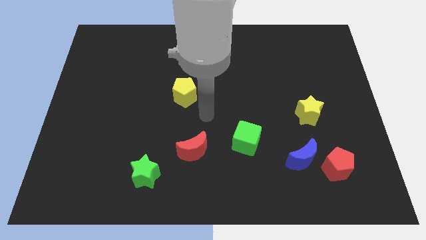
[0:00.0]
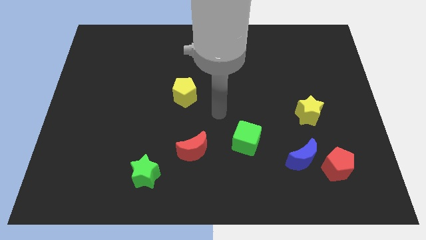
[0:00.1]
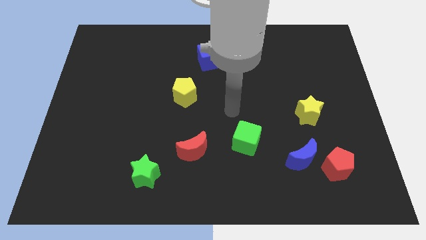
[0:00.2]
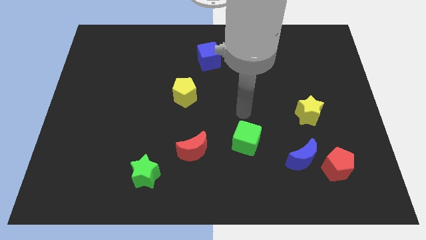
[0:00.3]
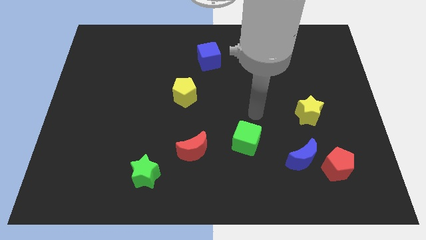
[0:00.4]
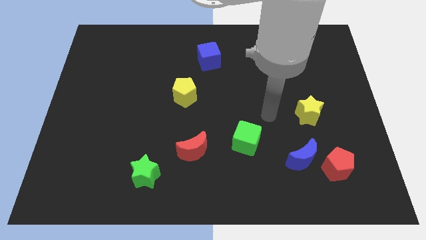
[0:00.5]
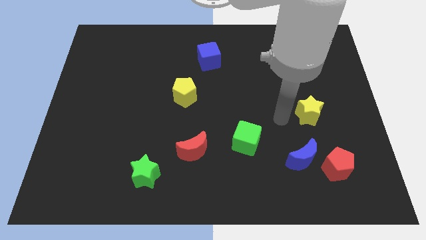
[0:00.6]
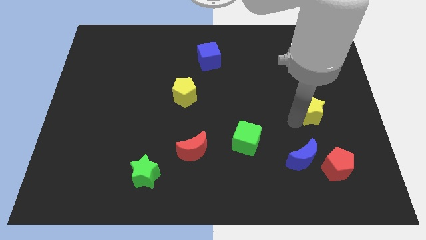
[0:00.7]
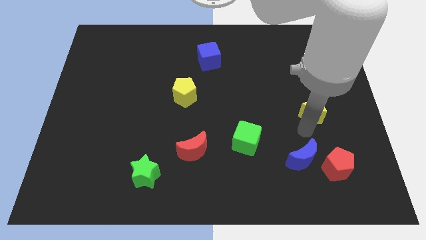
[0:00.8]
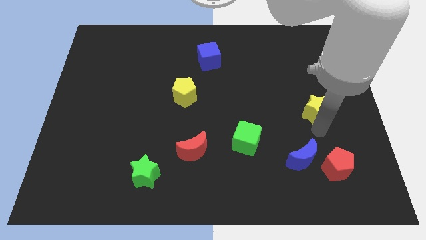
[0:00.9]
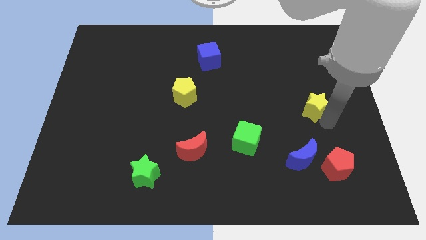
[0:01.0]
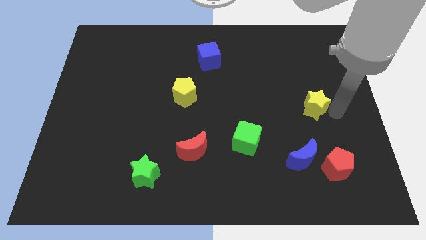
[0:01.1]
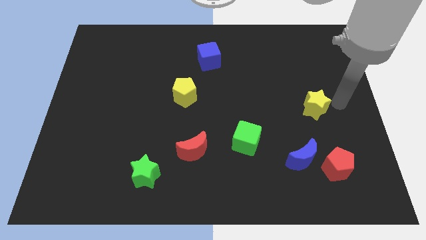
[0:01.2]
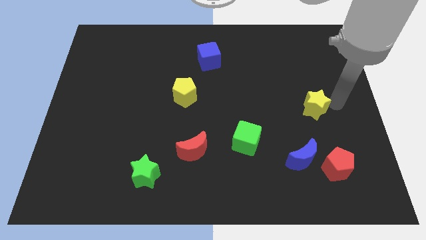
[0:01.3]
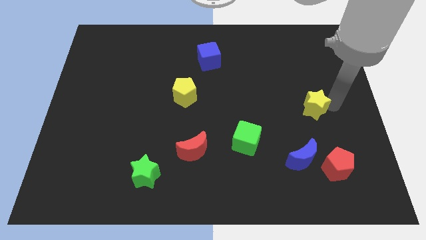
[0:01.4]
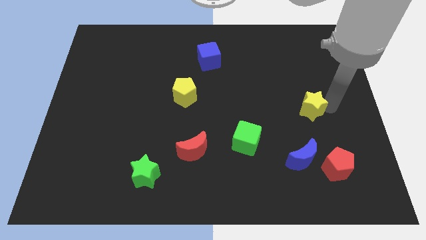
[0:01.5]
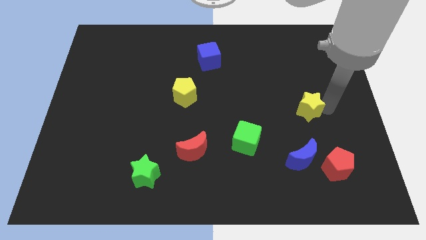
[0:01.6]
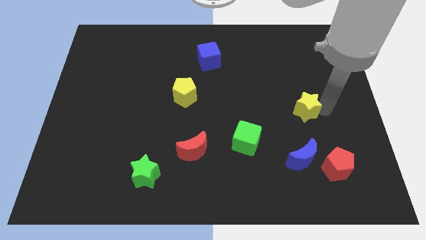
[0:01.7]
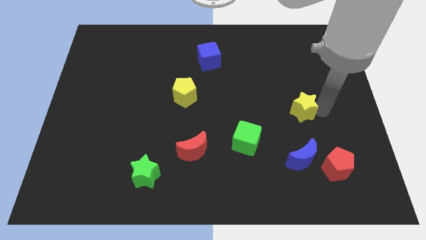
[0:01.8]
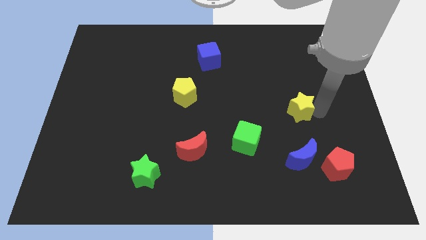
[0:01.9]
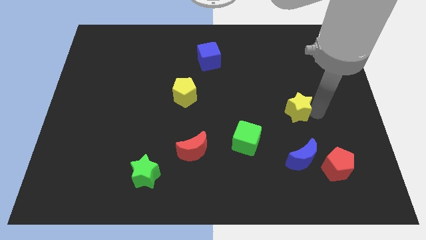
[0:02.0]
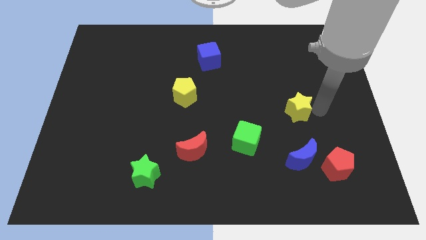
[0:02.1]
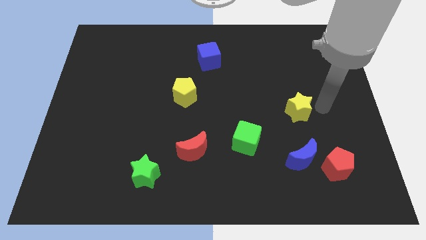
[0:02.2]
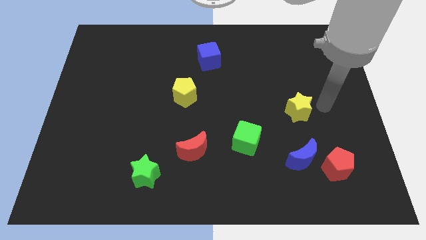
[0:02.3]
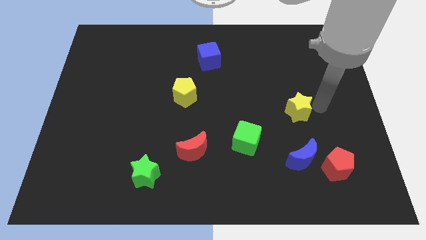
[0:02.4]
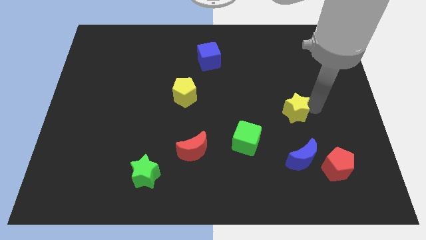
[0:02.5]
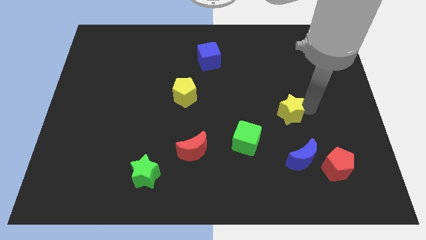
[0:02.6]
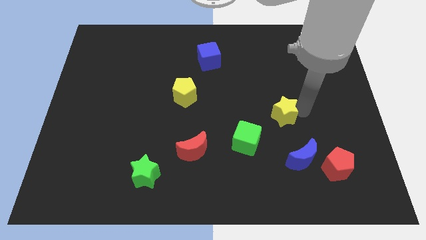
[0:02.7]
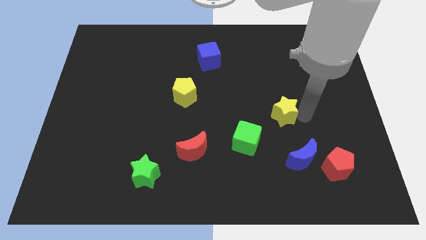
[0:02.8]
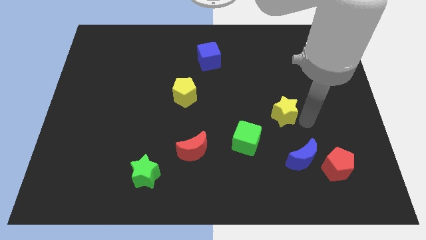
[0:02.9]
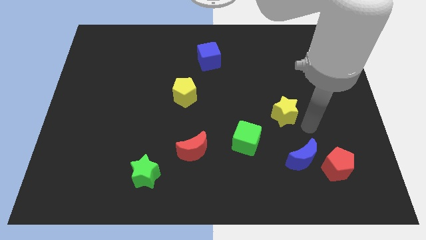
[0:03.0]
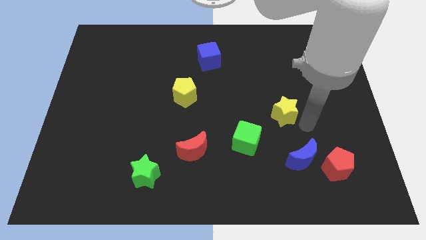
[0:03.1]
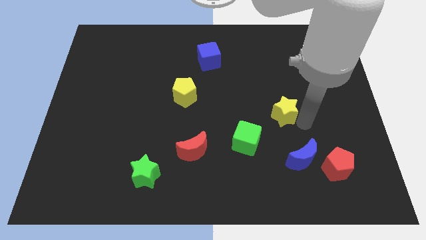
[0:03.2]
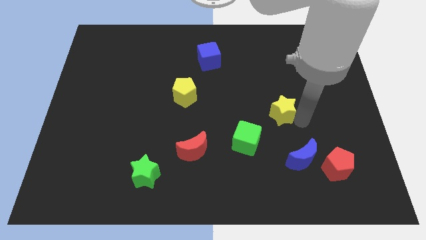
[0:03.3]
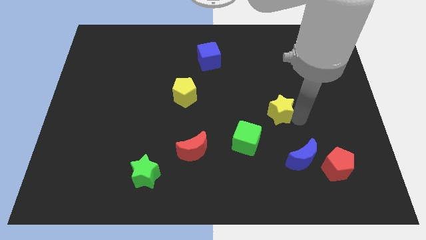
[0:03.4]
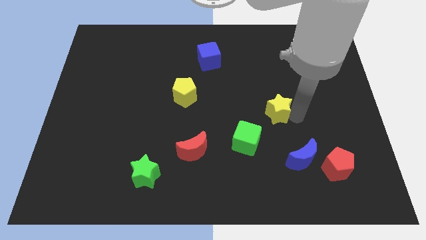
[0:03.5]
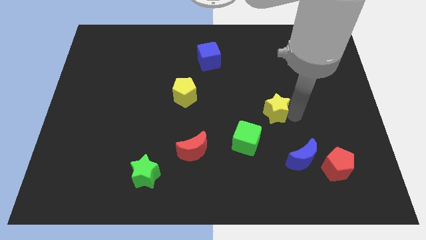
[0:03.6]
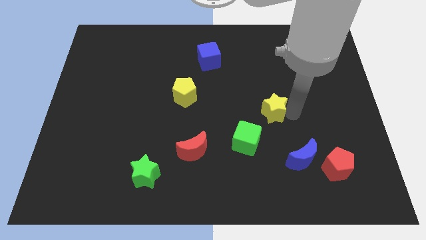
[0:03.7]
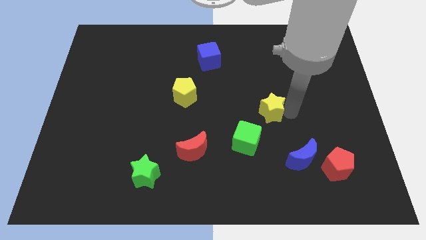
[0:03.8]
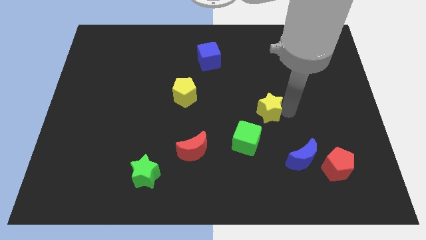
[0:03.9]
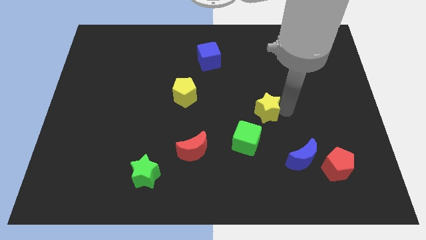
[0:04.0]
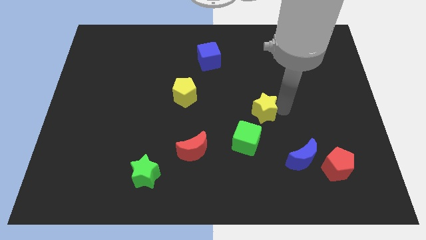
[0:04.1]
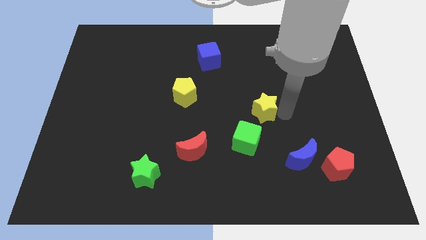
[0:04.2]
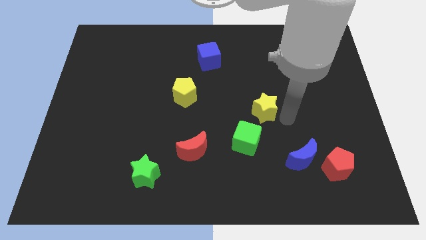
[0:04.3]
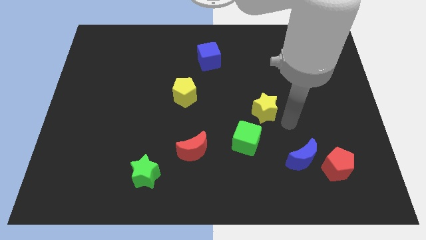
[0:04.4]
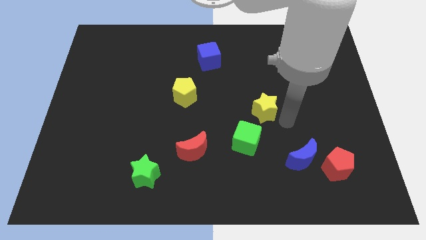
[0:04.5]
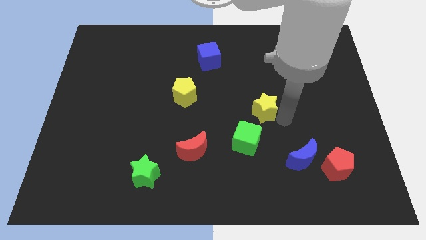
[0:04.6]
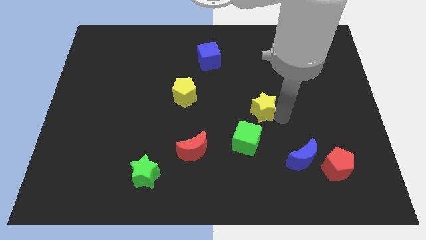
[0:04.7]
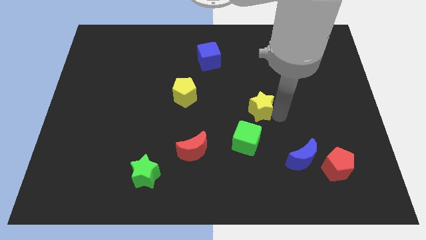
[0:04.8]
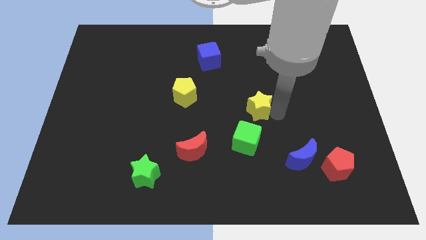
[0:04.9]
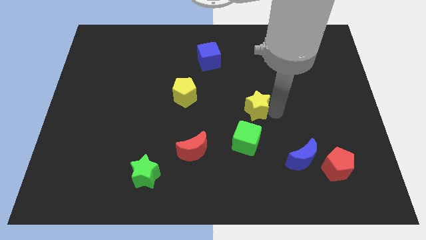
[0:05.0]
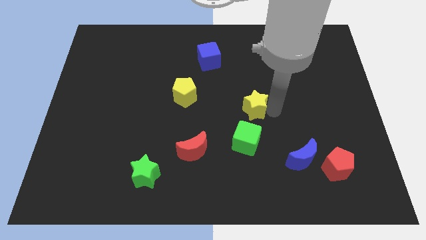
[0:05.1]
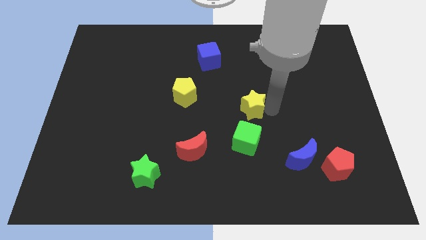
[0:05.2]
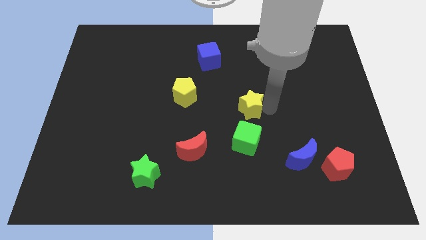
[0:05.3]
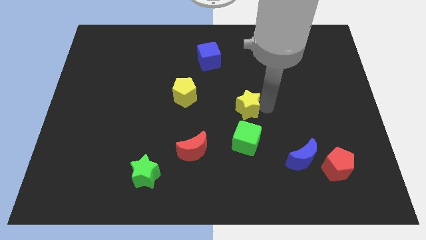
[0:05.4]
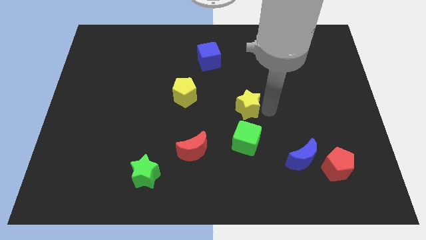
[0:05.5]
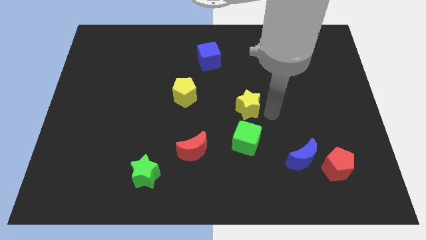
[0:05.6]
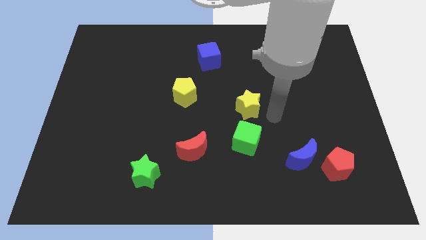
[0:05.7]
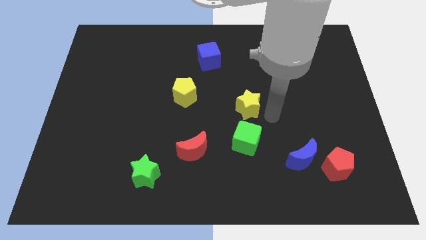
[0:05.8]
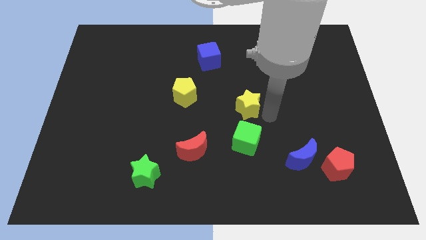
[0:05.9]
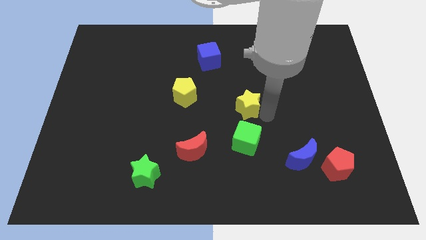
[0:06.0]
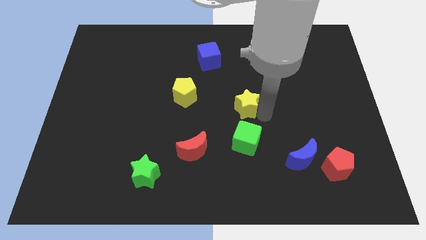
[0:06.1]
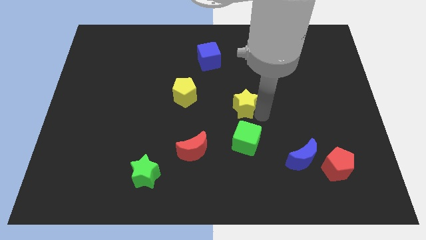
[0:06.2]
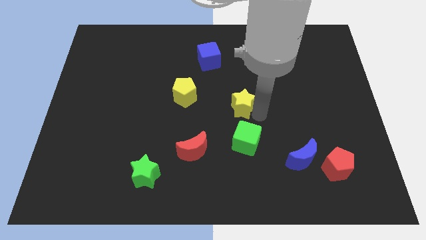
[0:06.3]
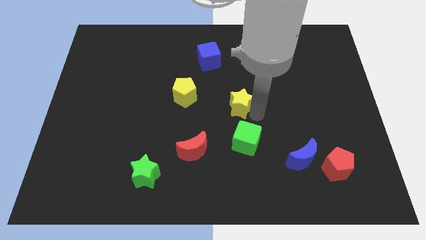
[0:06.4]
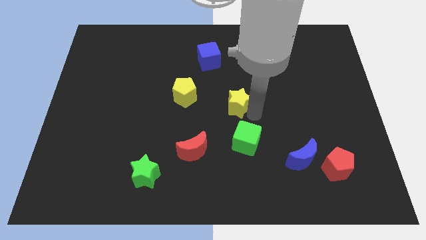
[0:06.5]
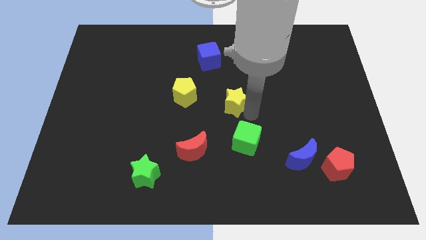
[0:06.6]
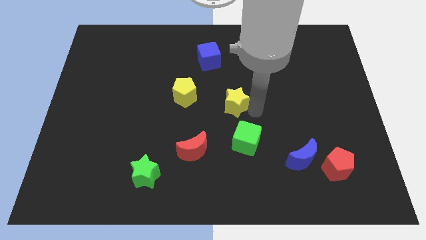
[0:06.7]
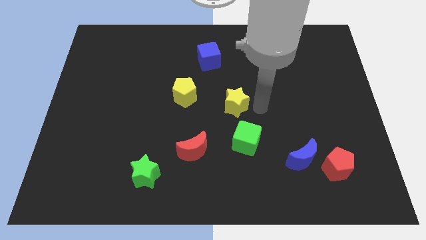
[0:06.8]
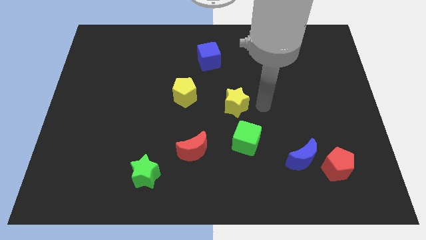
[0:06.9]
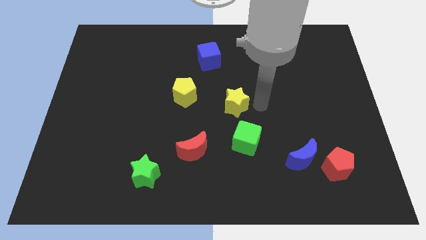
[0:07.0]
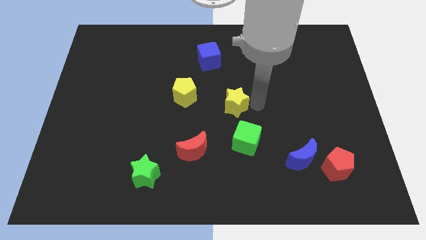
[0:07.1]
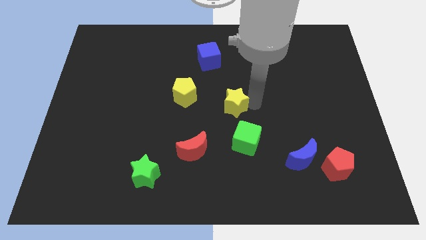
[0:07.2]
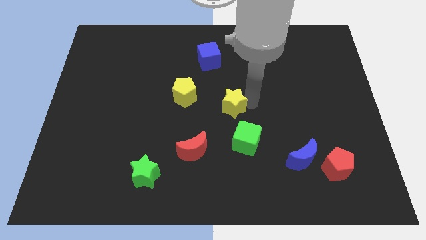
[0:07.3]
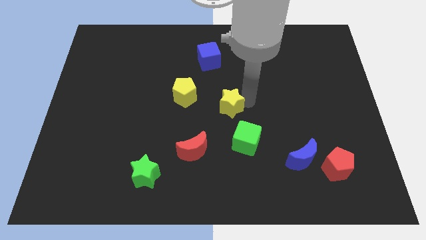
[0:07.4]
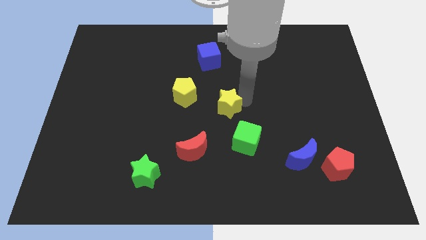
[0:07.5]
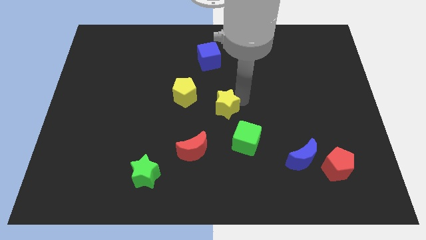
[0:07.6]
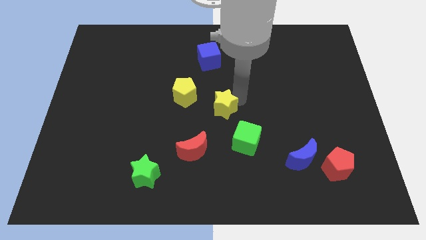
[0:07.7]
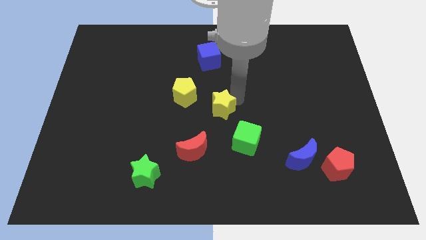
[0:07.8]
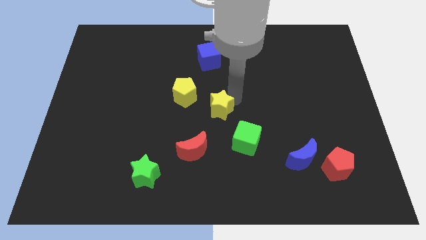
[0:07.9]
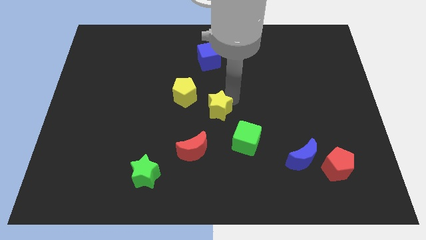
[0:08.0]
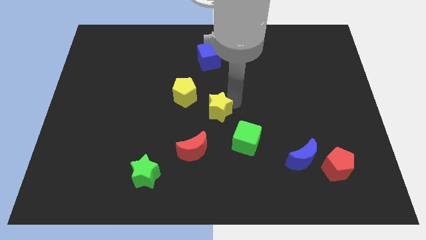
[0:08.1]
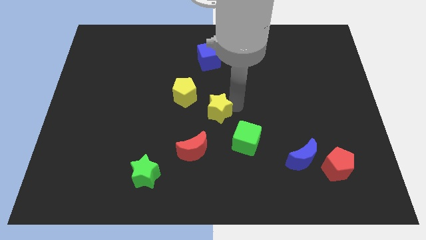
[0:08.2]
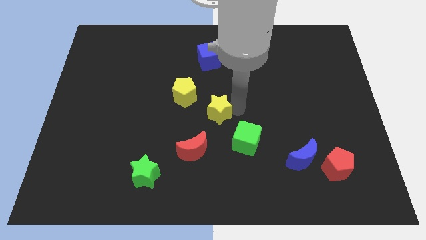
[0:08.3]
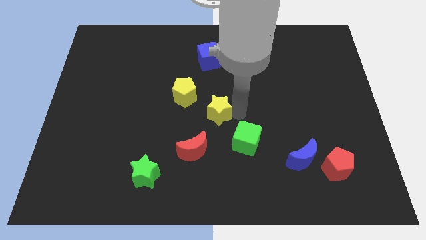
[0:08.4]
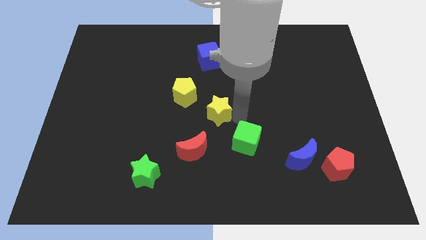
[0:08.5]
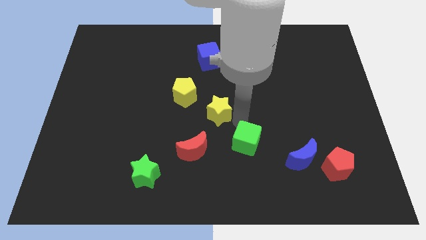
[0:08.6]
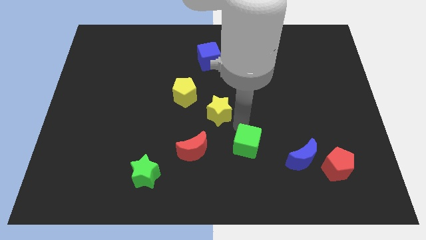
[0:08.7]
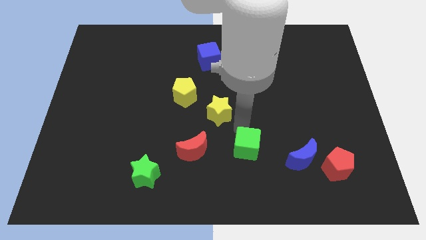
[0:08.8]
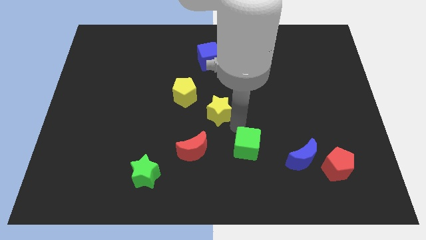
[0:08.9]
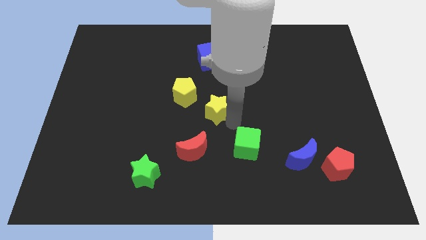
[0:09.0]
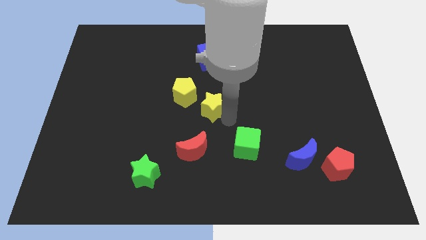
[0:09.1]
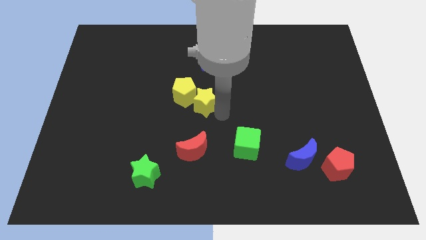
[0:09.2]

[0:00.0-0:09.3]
slide the yellow star close to the yellow pentagon
